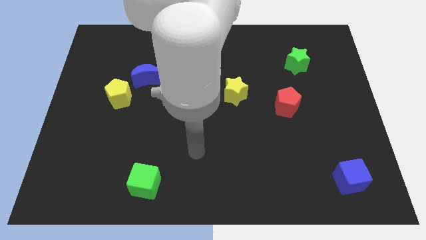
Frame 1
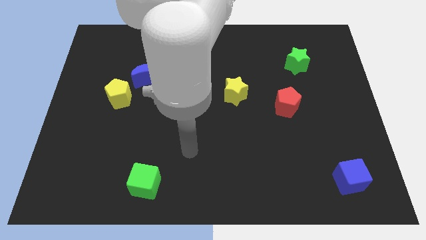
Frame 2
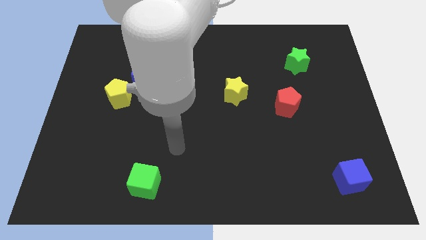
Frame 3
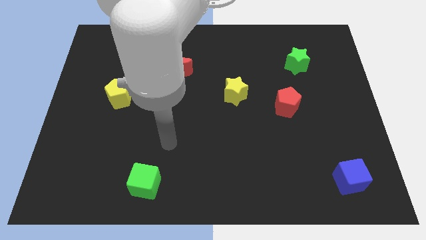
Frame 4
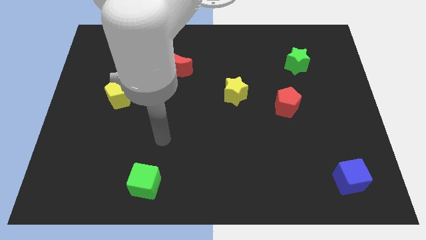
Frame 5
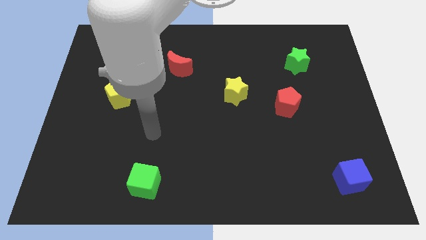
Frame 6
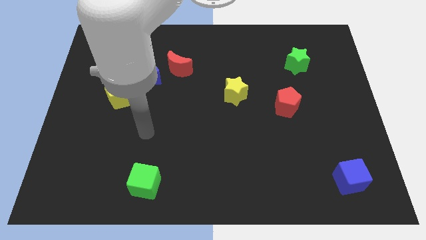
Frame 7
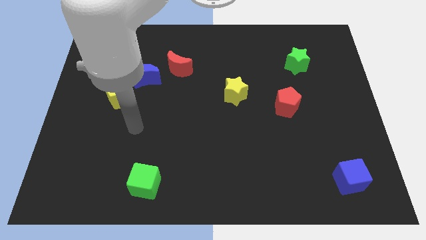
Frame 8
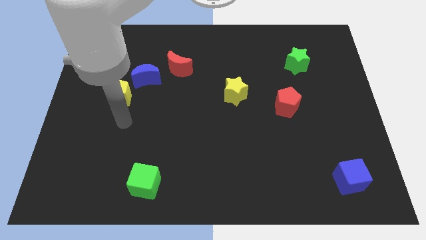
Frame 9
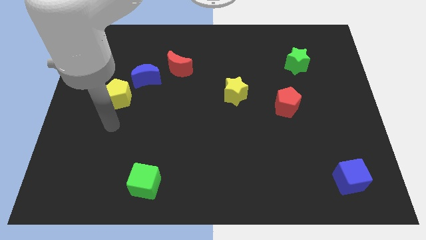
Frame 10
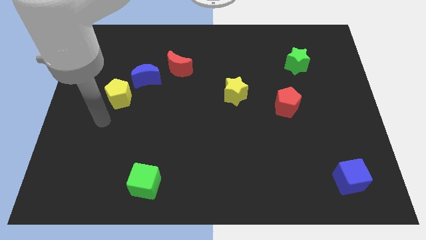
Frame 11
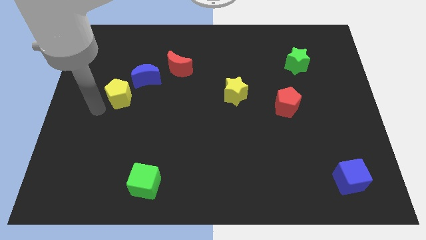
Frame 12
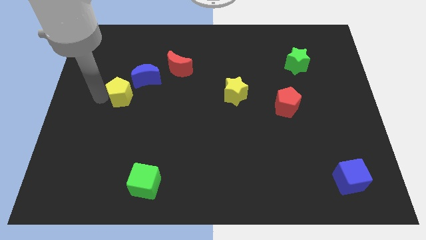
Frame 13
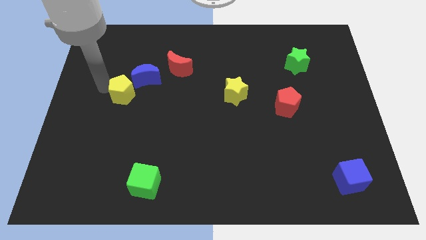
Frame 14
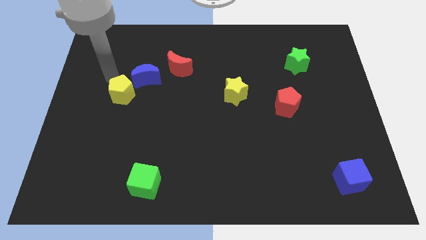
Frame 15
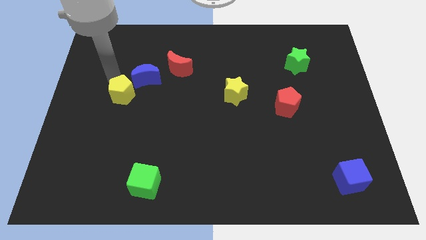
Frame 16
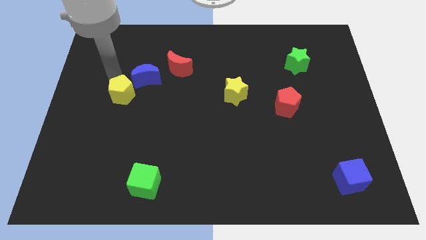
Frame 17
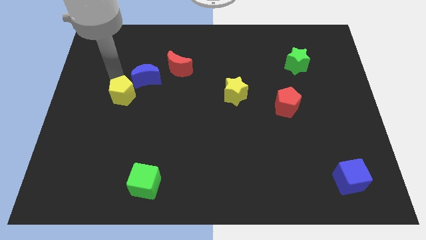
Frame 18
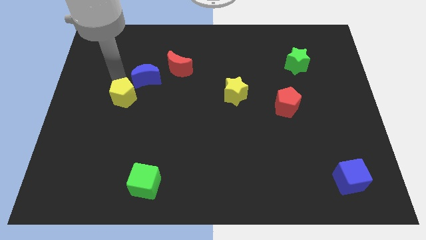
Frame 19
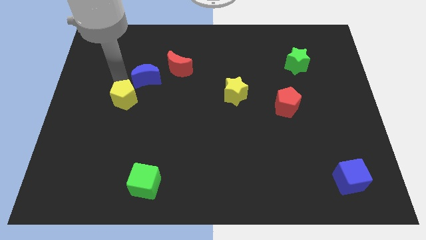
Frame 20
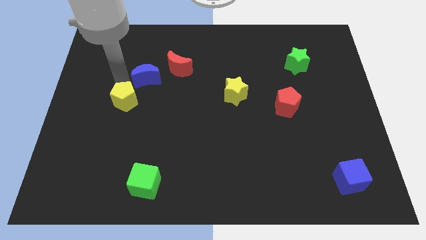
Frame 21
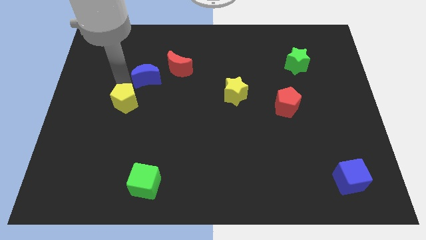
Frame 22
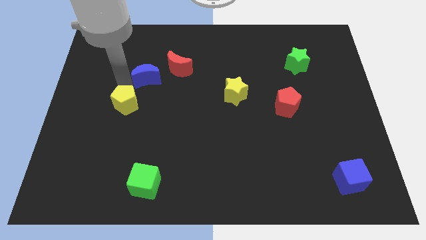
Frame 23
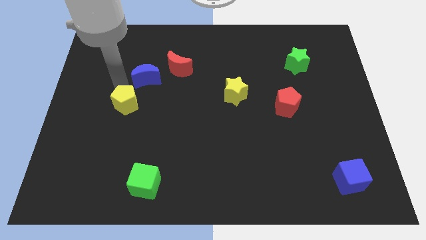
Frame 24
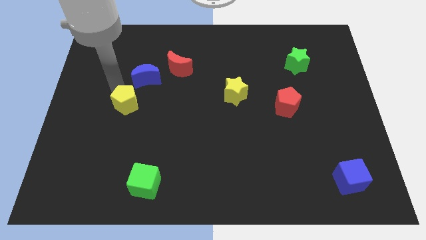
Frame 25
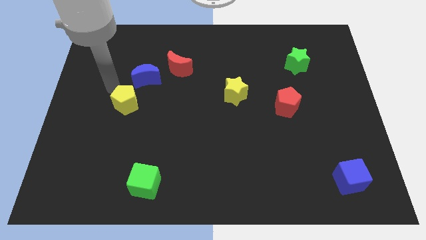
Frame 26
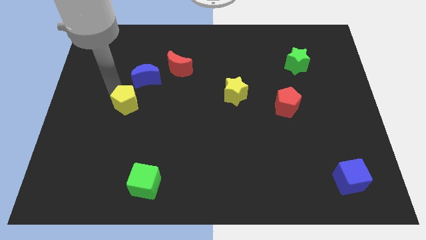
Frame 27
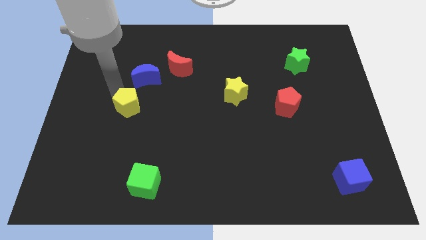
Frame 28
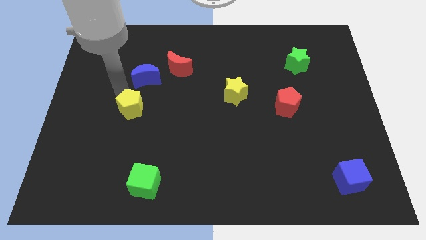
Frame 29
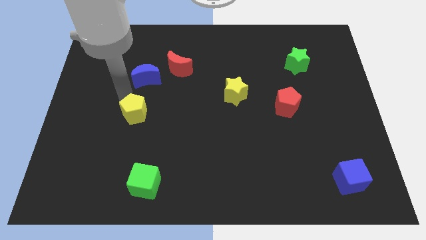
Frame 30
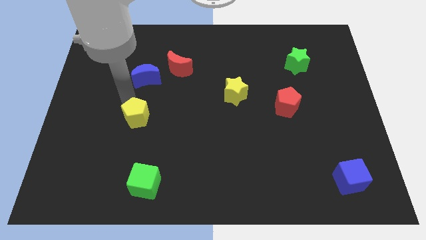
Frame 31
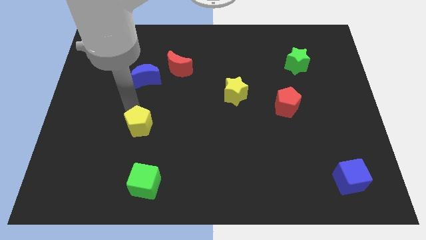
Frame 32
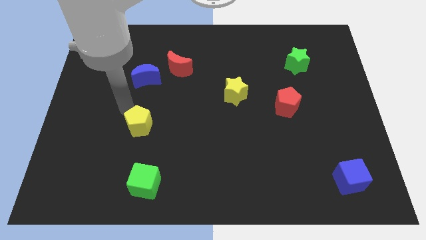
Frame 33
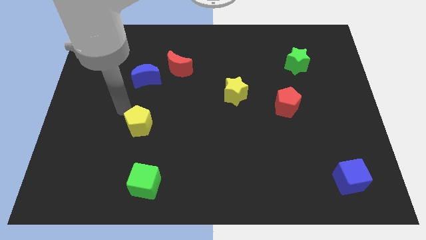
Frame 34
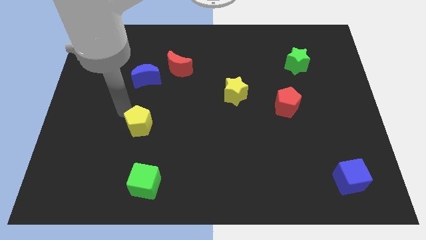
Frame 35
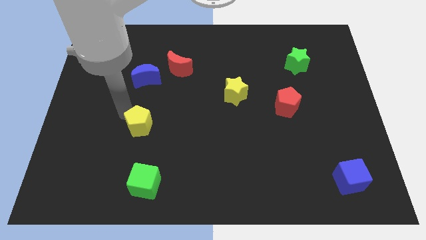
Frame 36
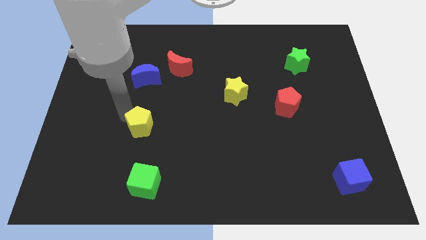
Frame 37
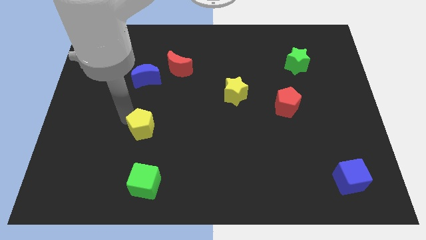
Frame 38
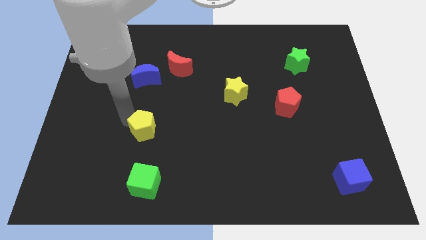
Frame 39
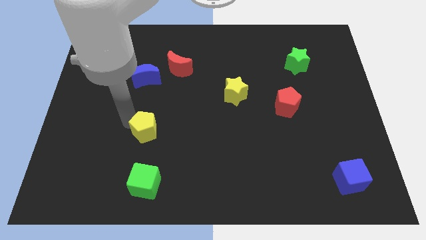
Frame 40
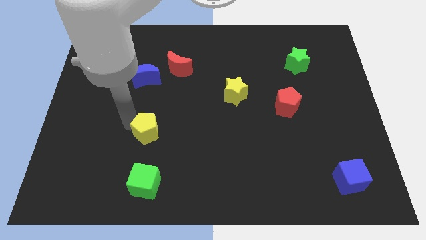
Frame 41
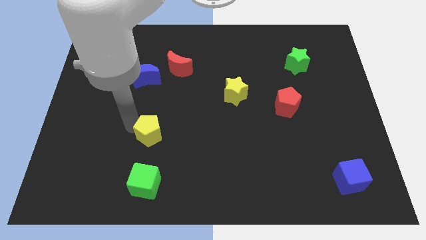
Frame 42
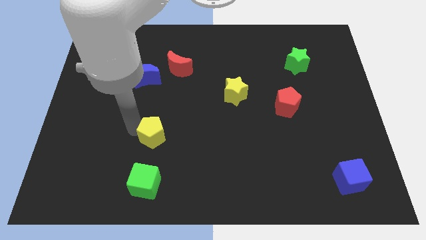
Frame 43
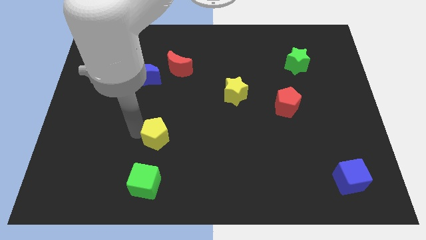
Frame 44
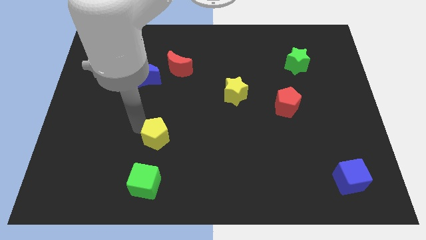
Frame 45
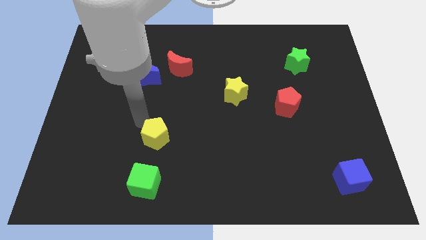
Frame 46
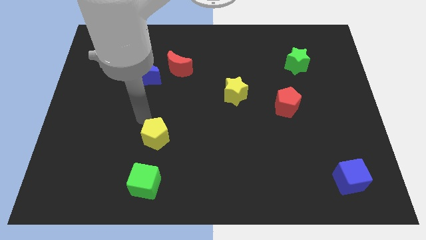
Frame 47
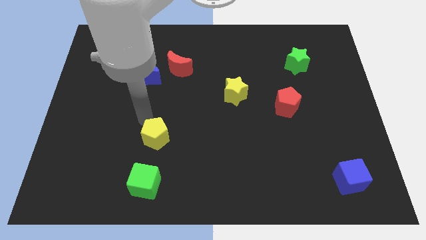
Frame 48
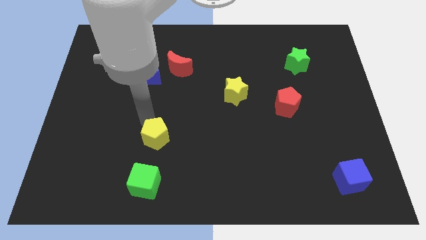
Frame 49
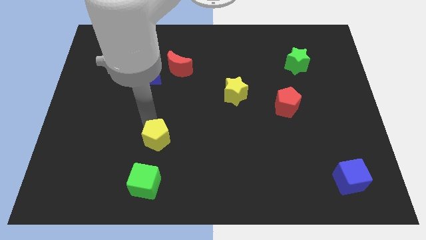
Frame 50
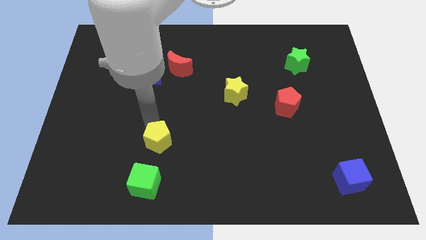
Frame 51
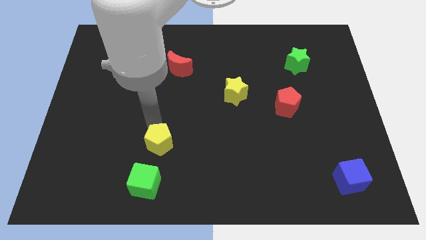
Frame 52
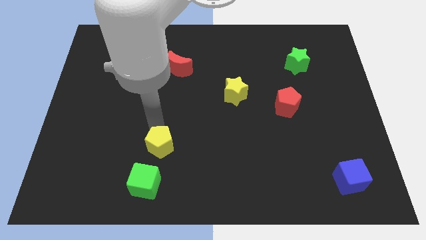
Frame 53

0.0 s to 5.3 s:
move the yellow pentagon to the top right side of the green cube

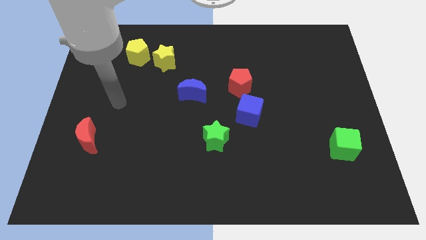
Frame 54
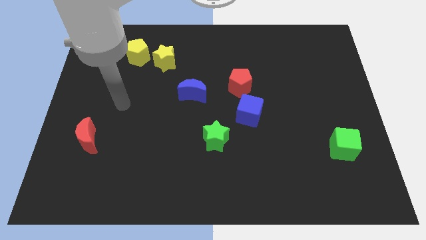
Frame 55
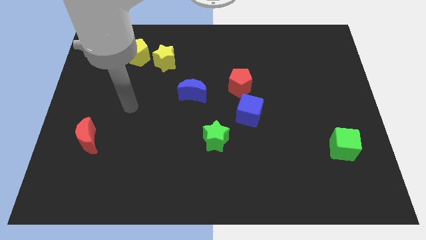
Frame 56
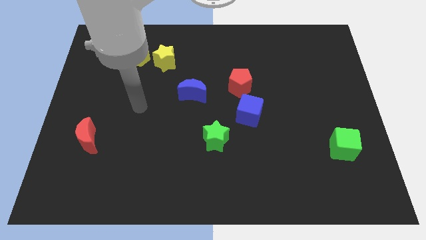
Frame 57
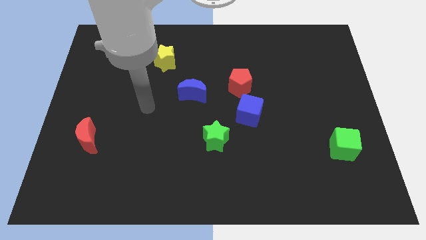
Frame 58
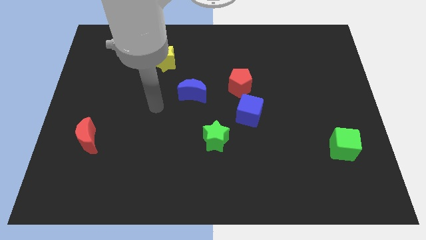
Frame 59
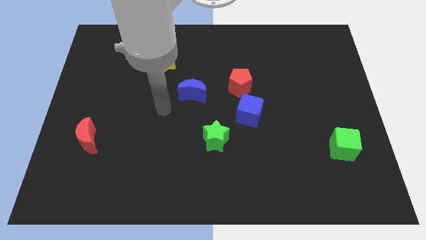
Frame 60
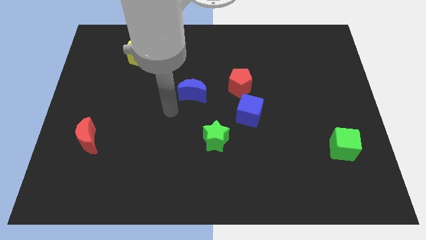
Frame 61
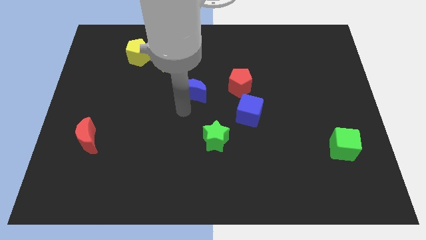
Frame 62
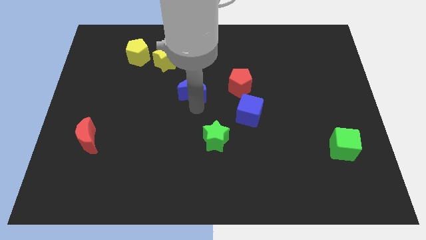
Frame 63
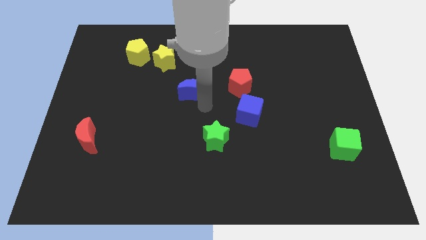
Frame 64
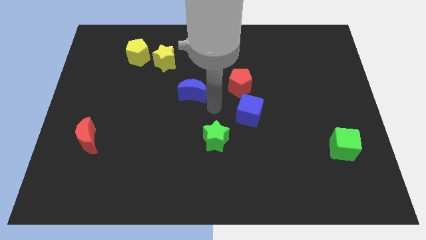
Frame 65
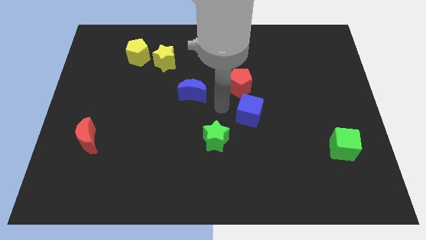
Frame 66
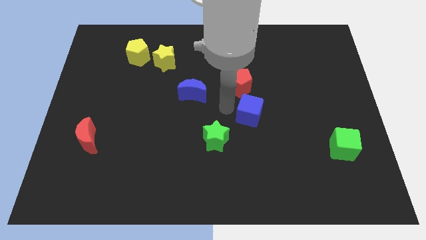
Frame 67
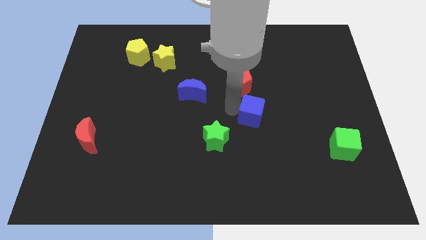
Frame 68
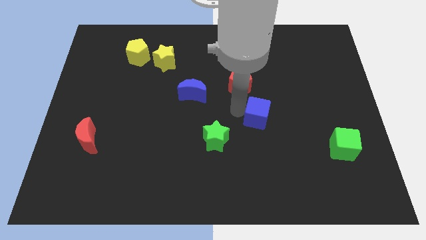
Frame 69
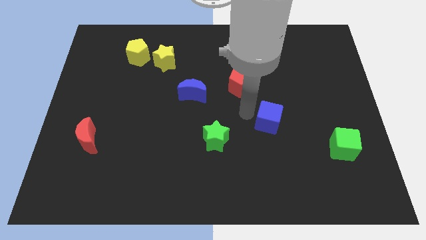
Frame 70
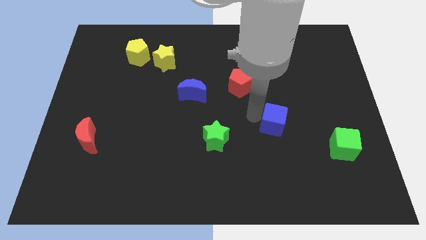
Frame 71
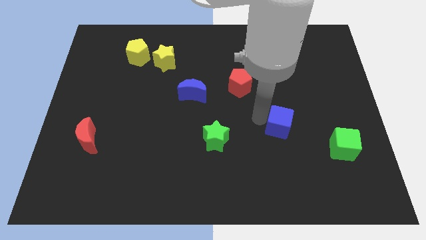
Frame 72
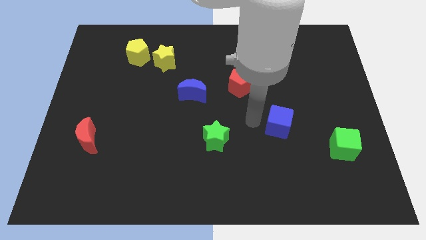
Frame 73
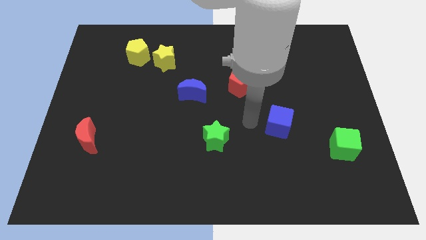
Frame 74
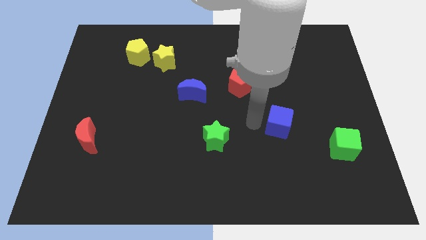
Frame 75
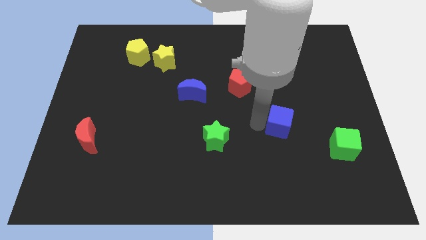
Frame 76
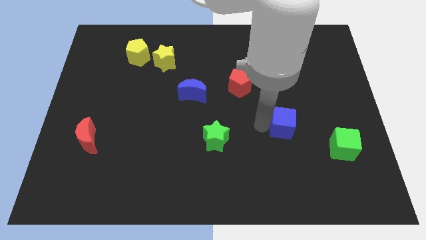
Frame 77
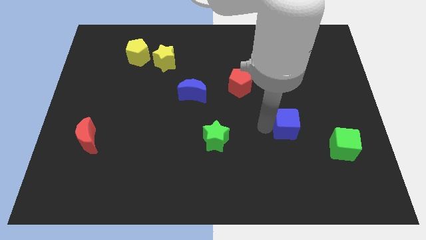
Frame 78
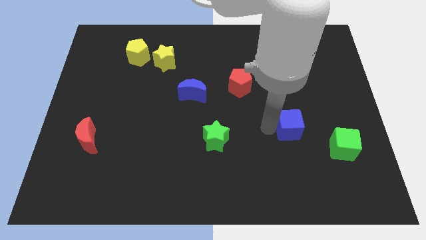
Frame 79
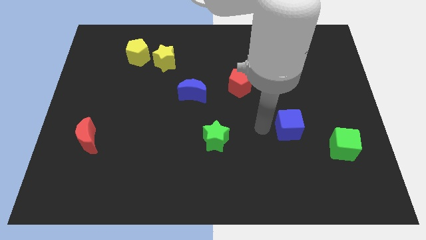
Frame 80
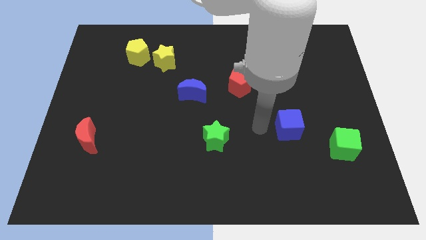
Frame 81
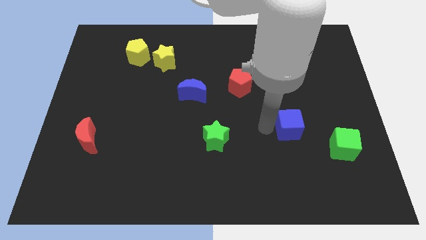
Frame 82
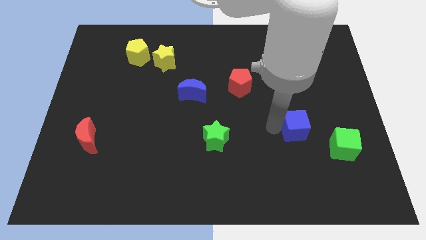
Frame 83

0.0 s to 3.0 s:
move the blue cube to the top left side of the green cube
